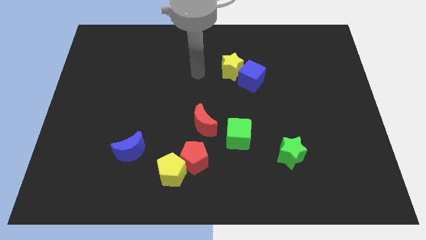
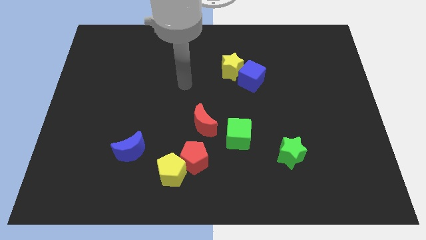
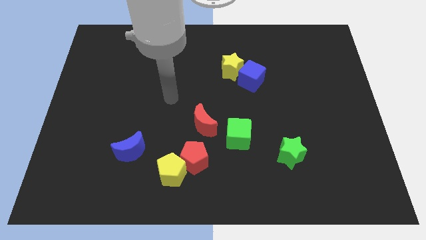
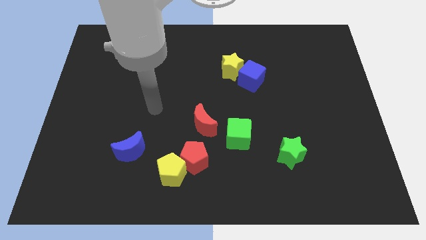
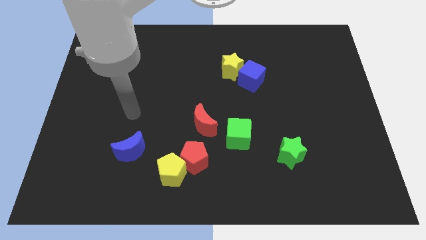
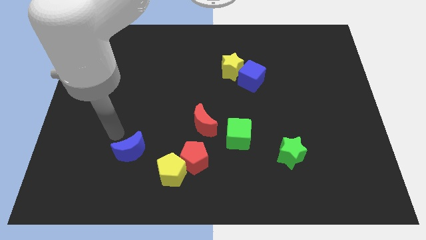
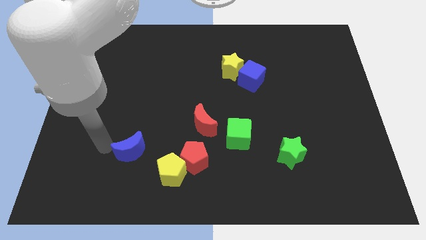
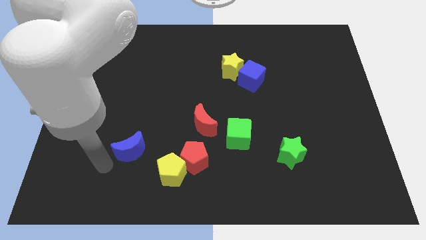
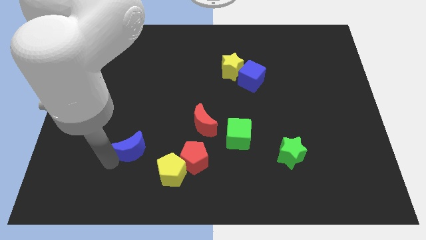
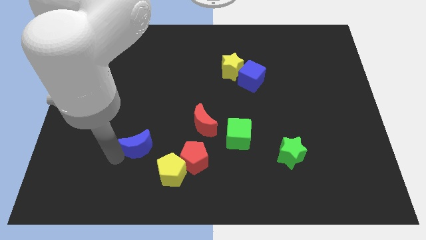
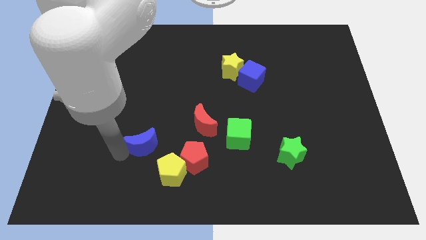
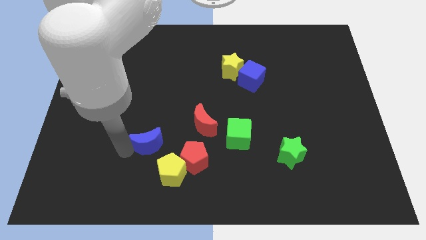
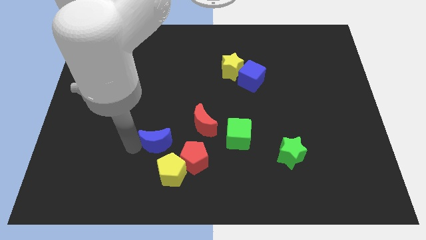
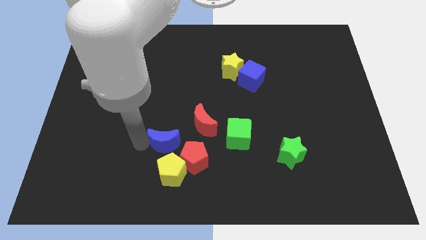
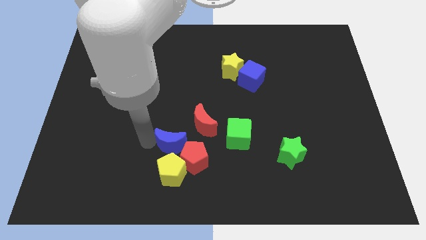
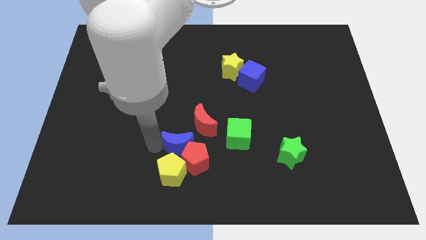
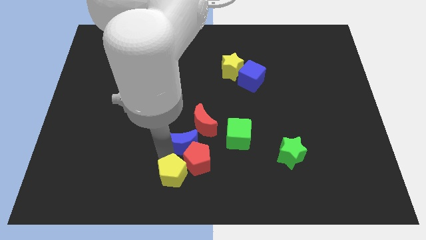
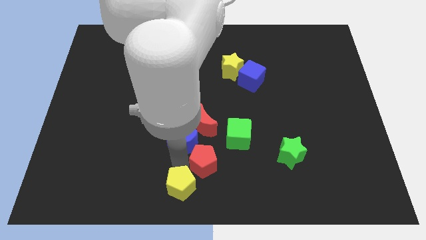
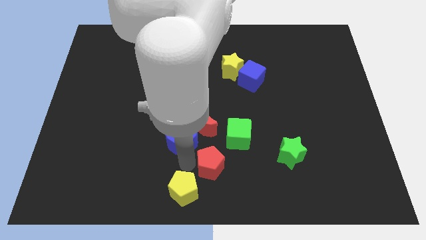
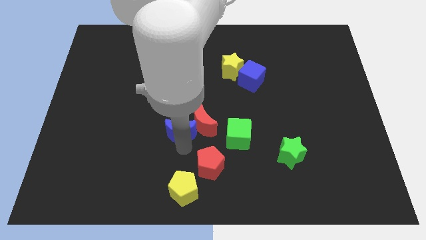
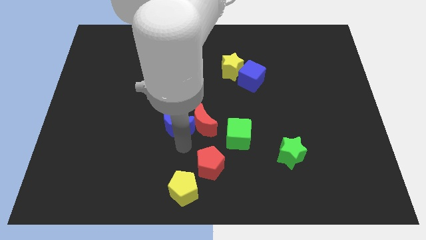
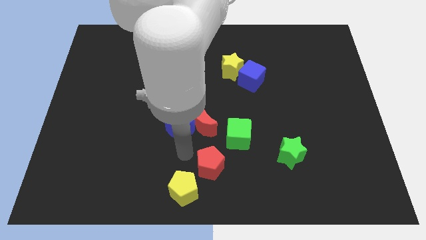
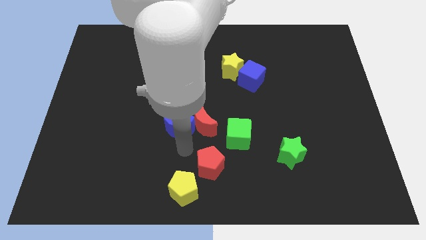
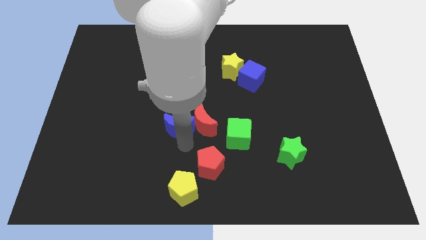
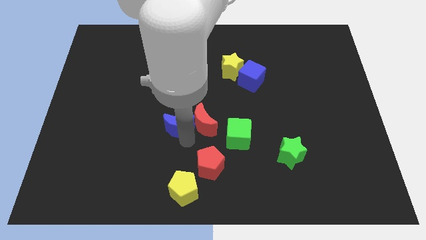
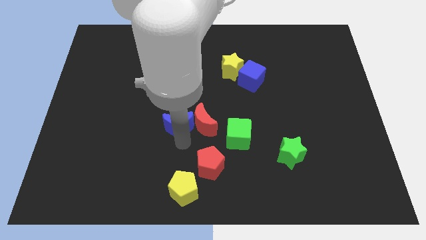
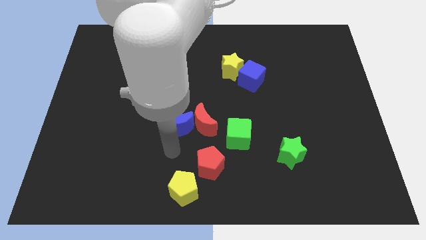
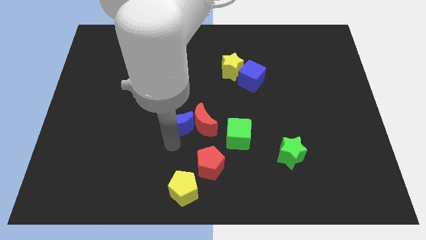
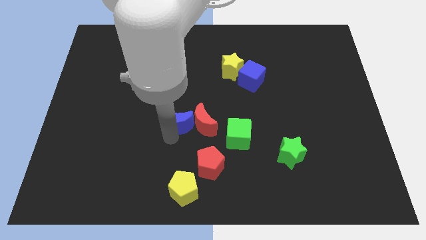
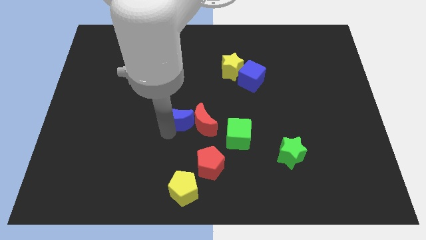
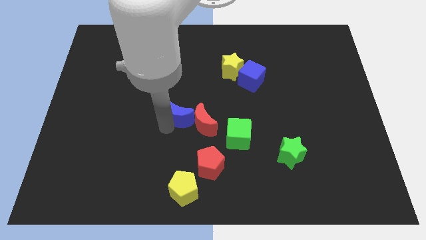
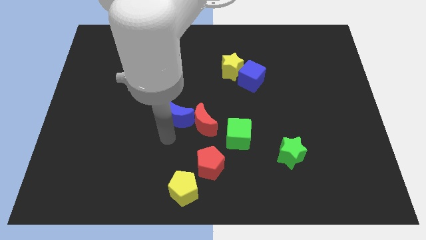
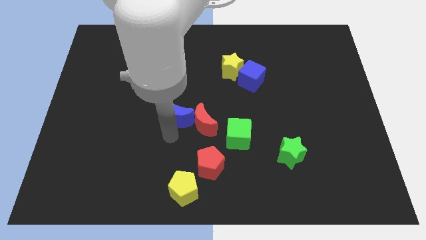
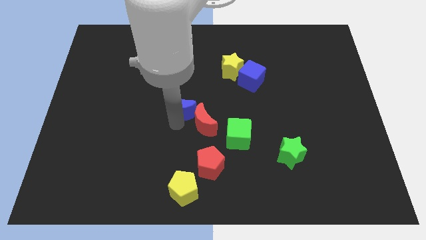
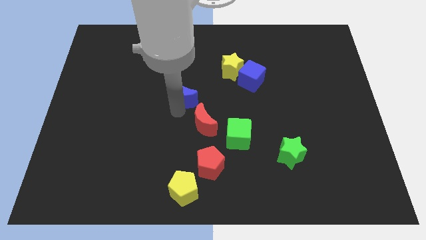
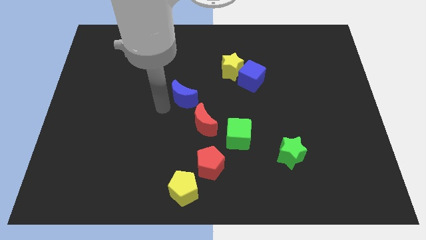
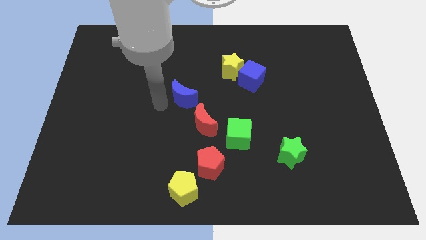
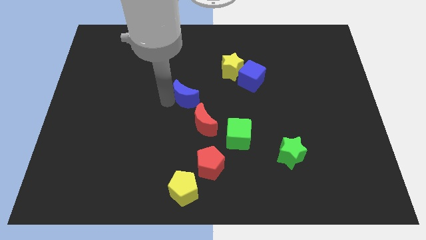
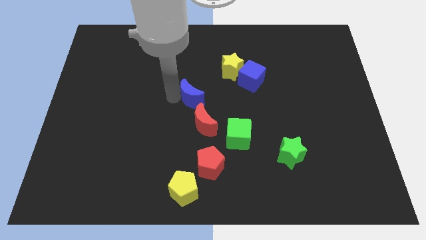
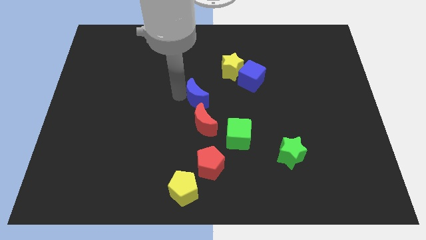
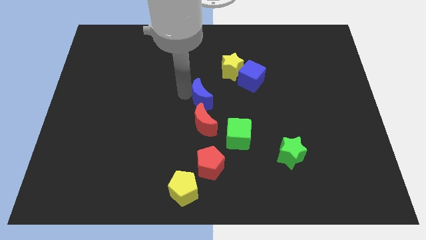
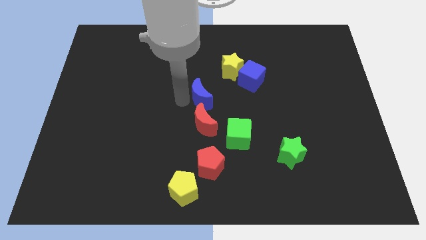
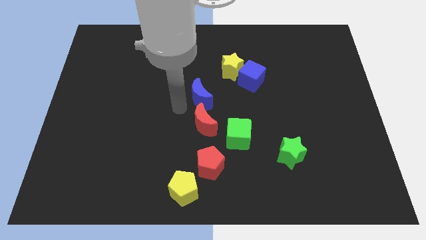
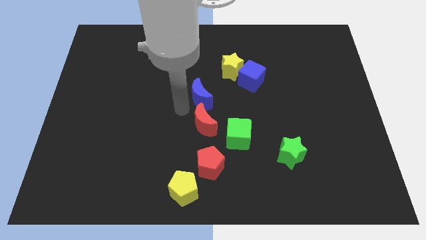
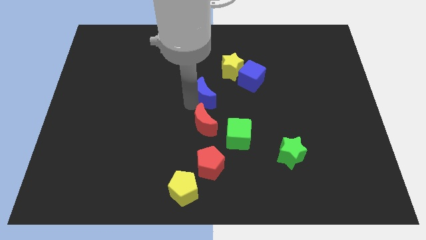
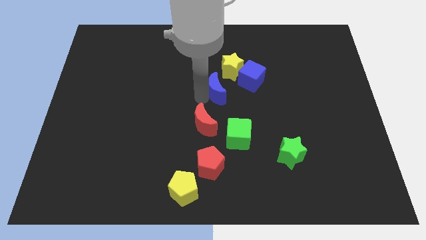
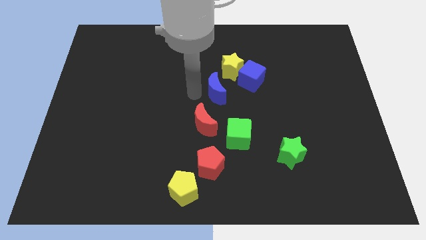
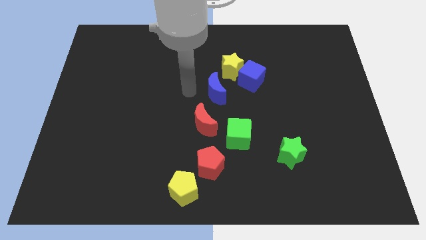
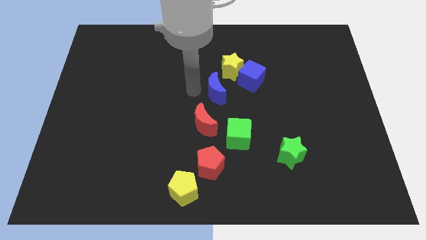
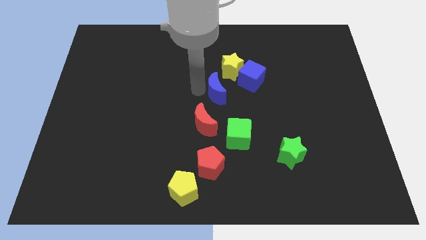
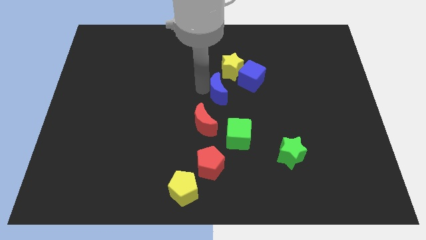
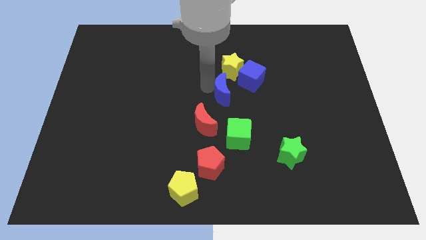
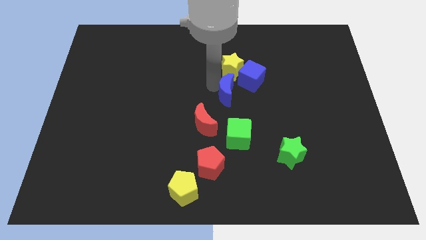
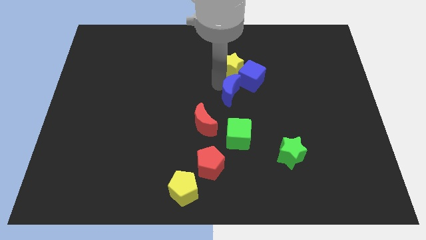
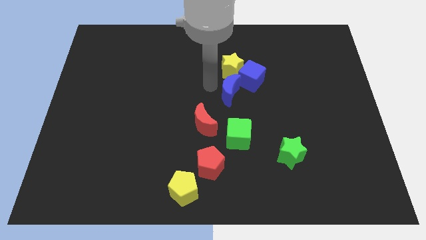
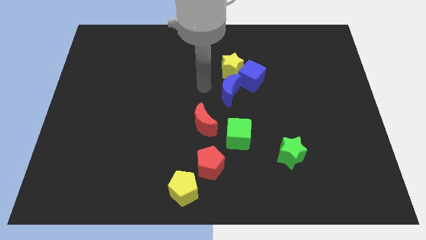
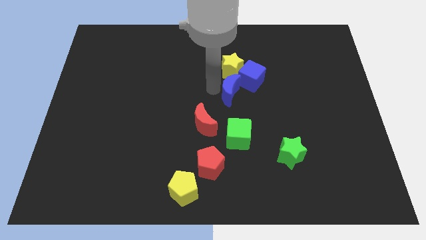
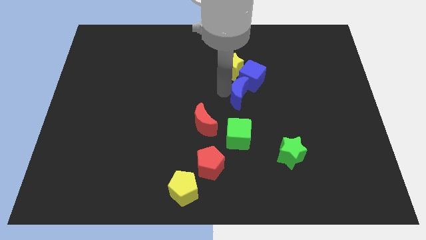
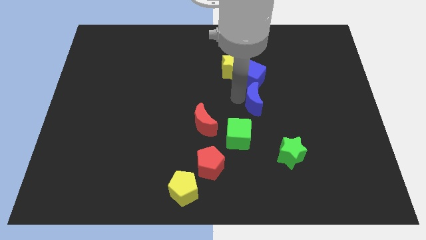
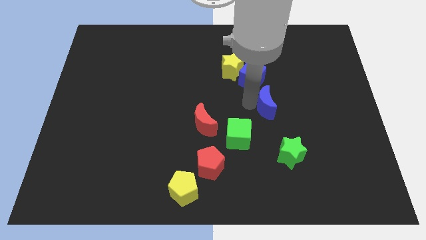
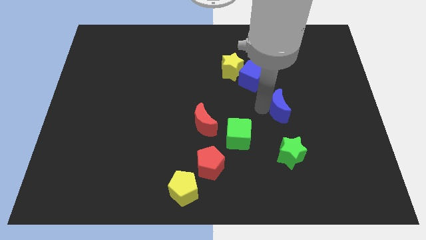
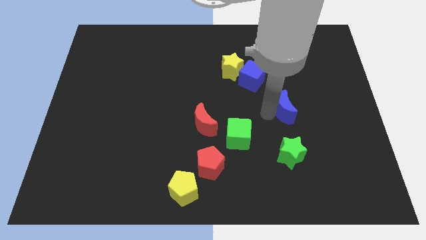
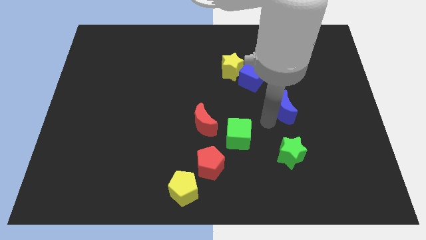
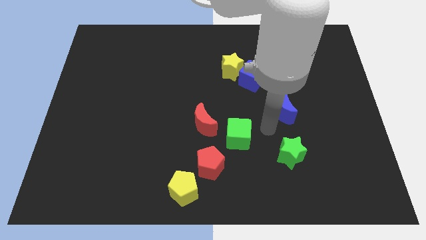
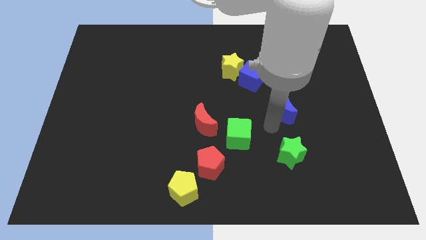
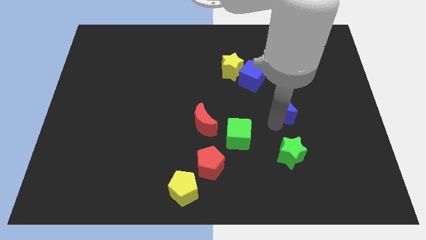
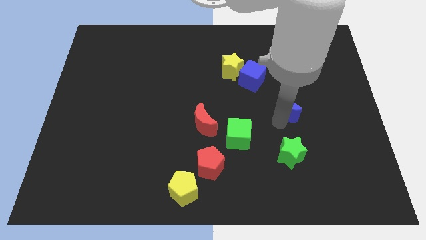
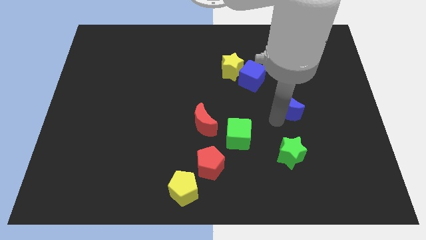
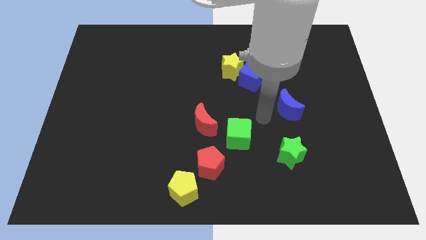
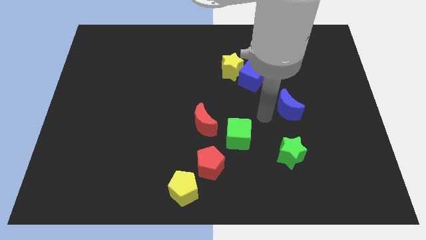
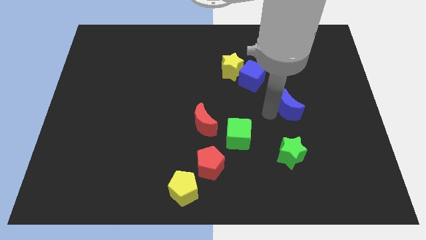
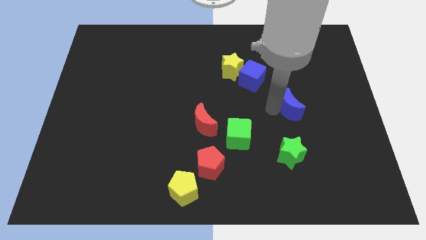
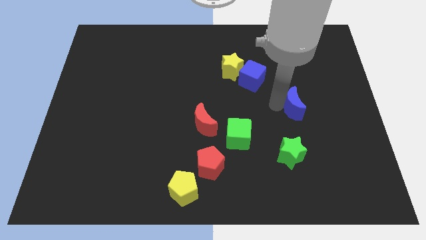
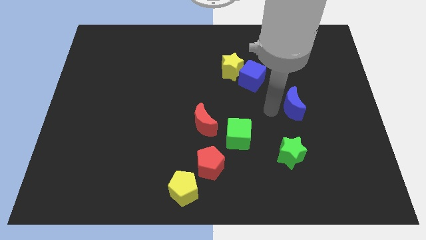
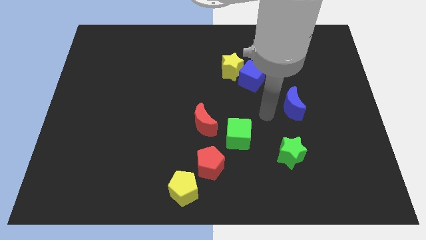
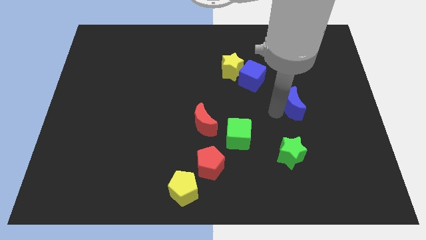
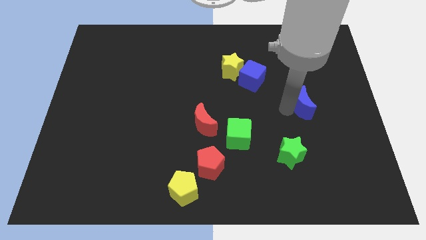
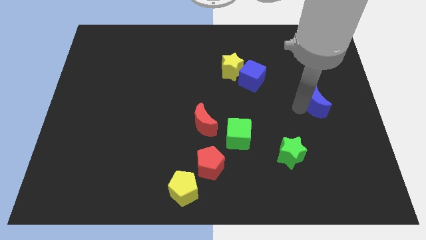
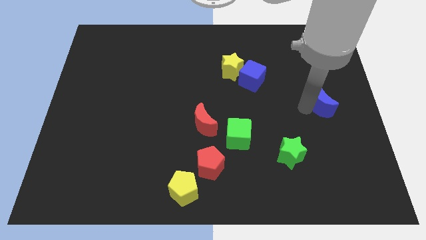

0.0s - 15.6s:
slide the blue moon to the center right
